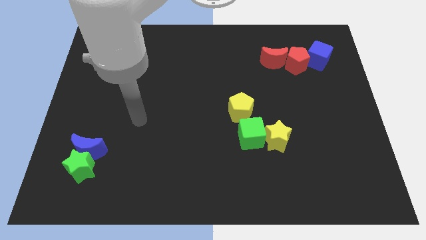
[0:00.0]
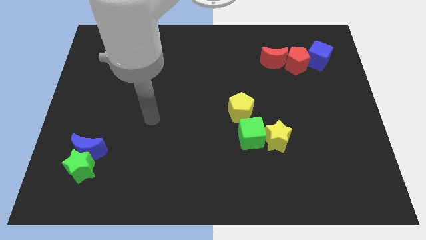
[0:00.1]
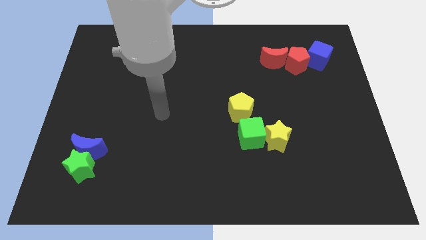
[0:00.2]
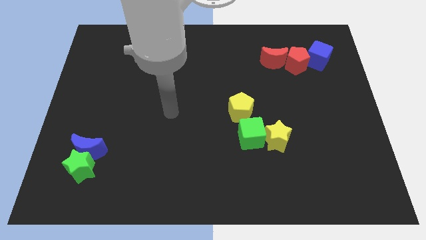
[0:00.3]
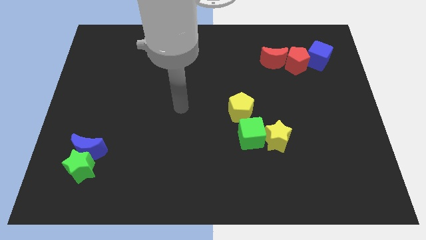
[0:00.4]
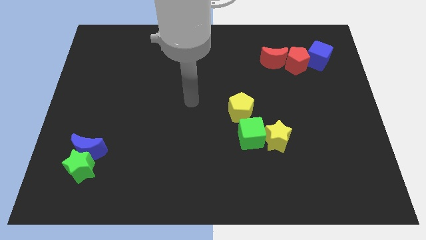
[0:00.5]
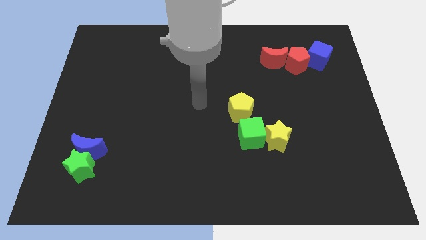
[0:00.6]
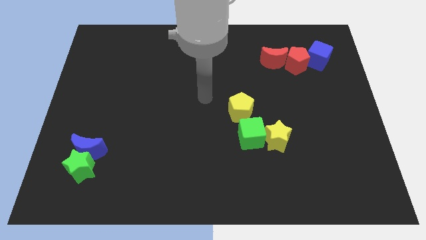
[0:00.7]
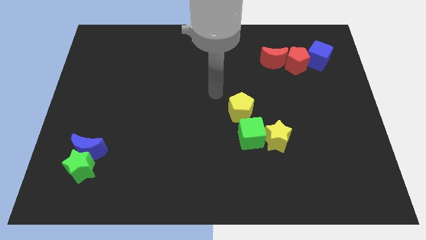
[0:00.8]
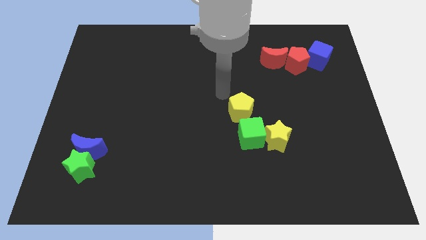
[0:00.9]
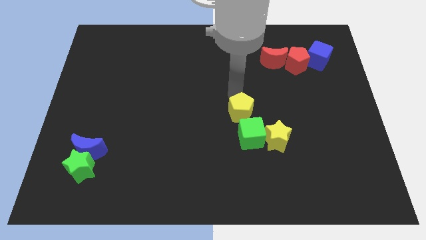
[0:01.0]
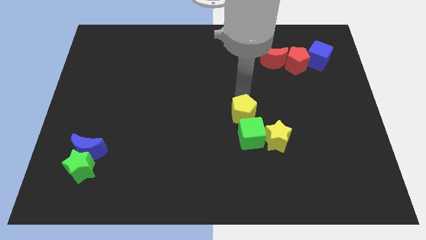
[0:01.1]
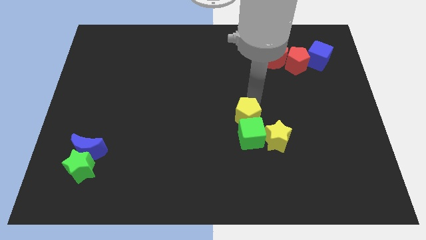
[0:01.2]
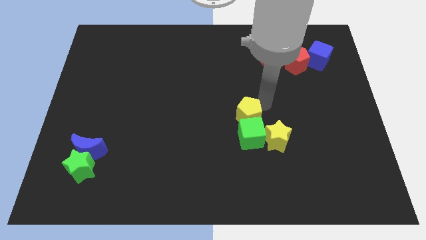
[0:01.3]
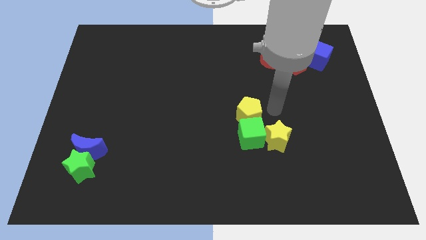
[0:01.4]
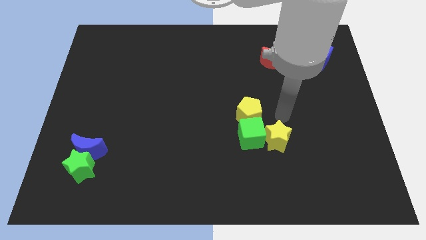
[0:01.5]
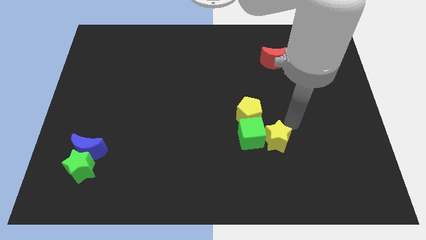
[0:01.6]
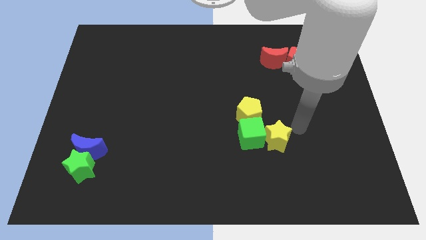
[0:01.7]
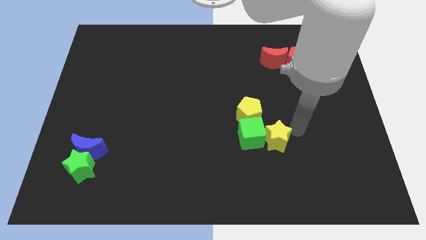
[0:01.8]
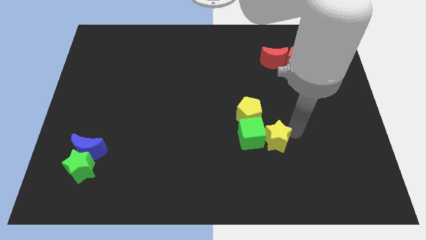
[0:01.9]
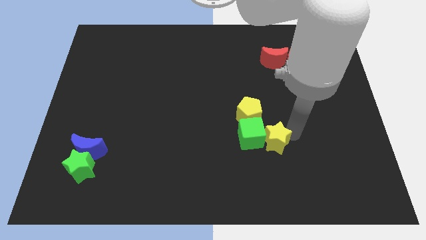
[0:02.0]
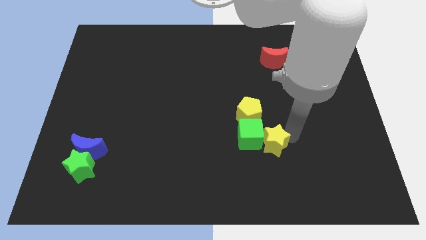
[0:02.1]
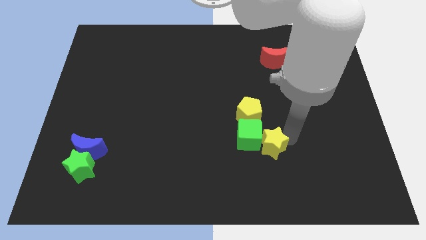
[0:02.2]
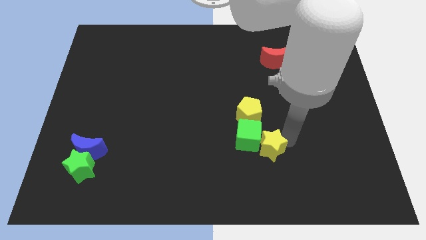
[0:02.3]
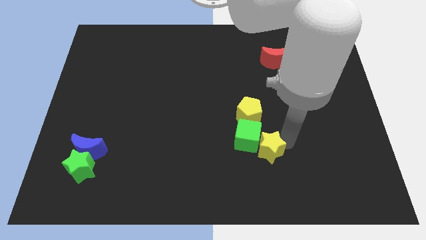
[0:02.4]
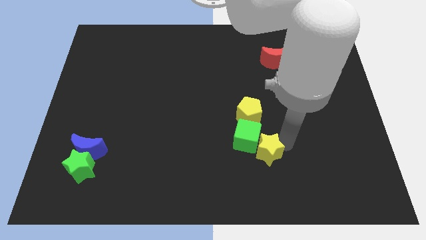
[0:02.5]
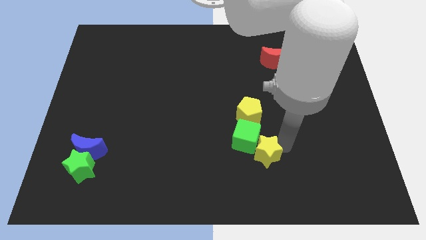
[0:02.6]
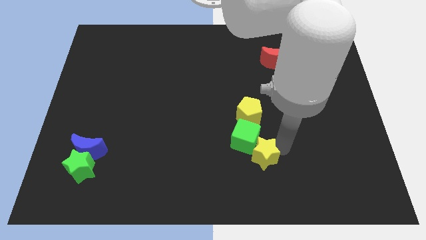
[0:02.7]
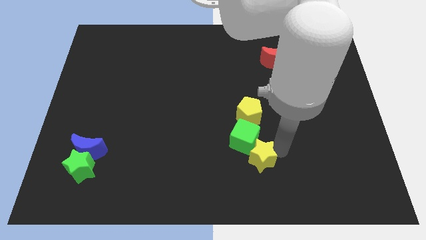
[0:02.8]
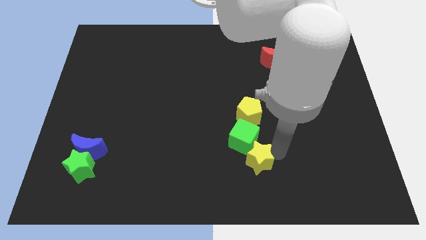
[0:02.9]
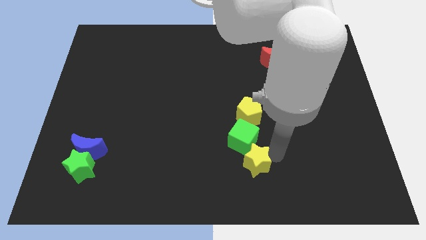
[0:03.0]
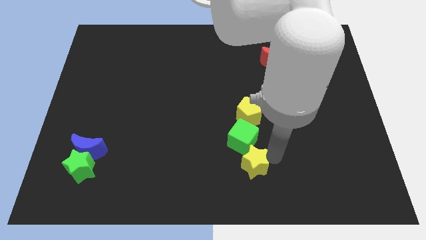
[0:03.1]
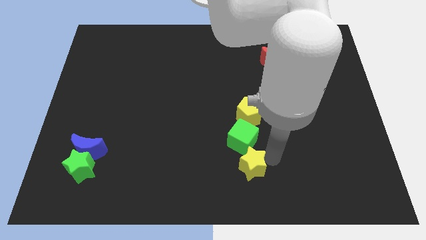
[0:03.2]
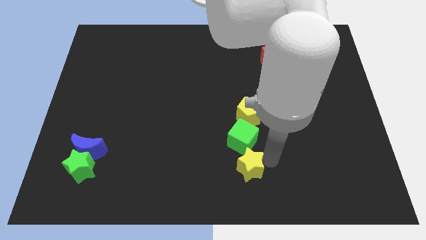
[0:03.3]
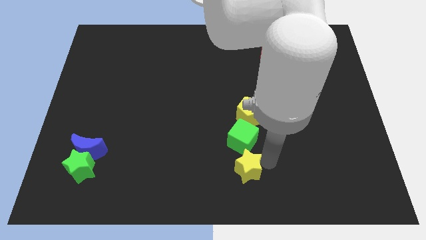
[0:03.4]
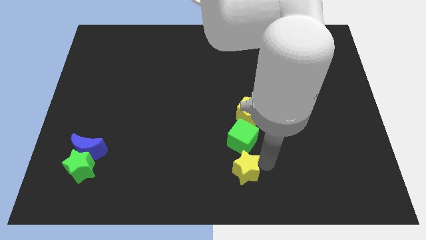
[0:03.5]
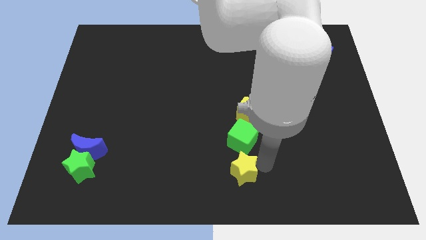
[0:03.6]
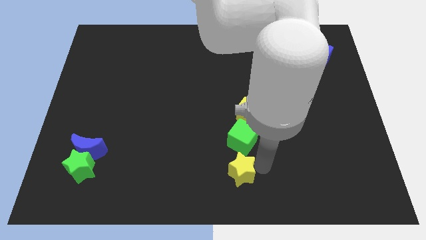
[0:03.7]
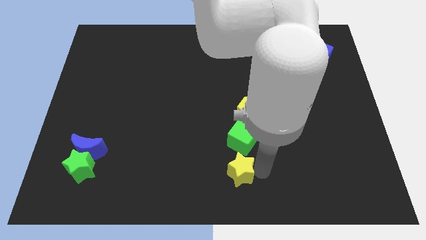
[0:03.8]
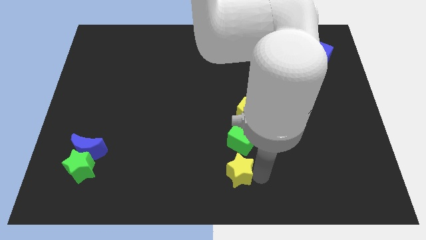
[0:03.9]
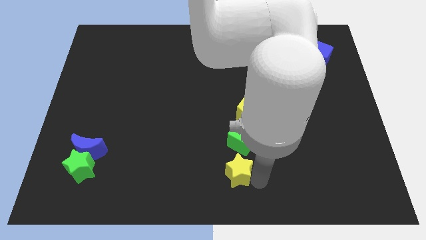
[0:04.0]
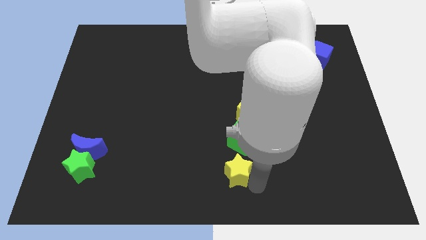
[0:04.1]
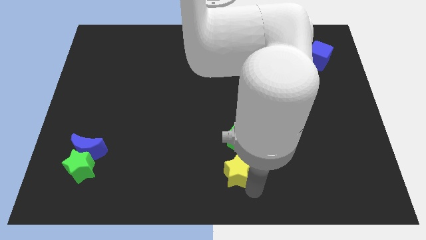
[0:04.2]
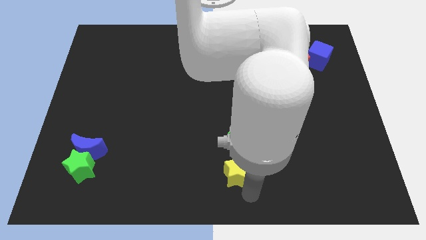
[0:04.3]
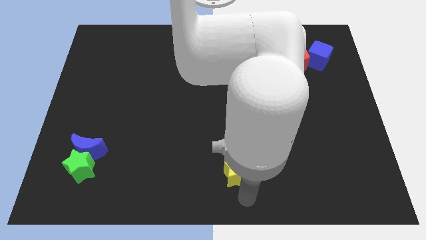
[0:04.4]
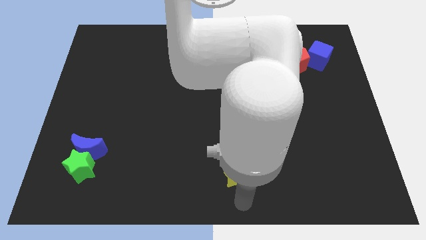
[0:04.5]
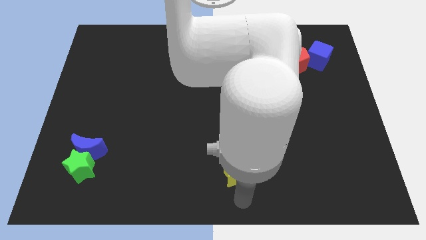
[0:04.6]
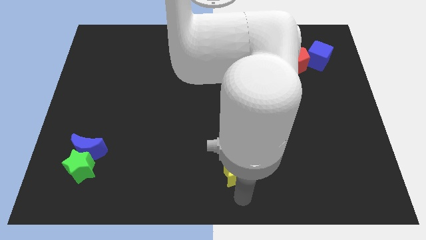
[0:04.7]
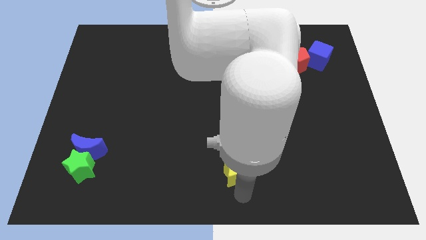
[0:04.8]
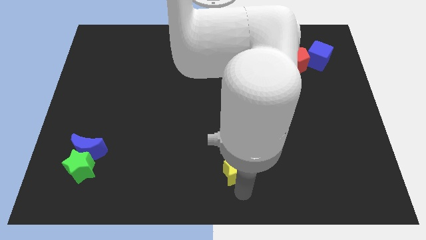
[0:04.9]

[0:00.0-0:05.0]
slightly move the yellow star left

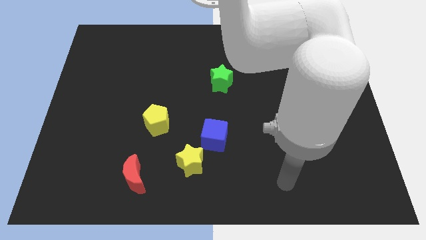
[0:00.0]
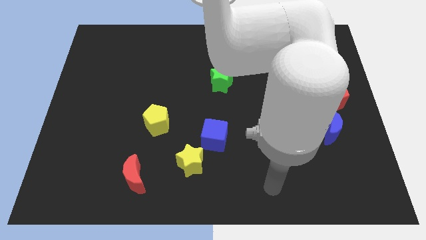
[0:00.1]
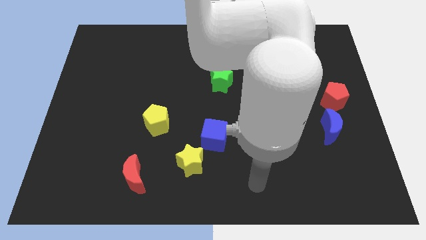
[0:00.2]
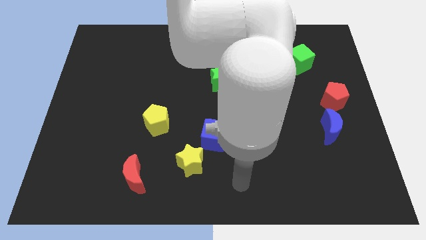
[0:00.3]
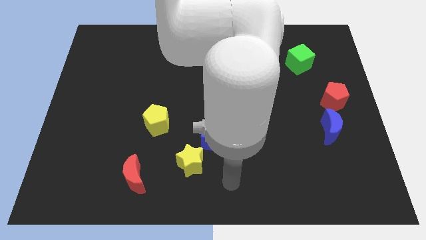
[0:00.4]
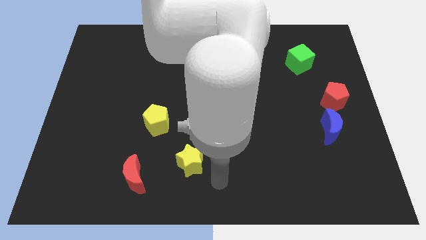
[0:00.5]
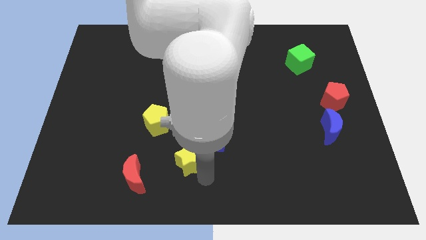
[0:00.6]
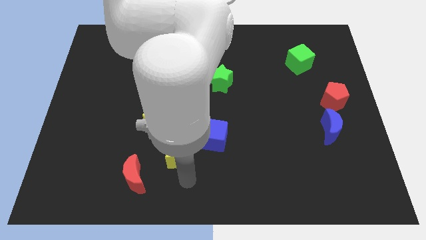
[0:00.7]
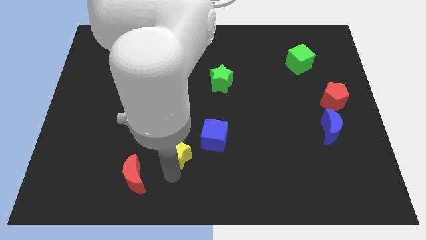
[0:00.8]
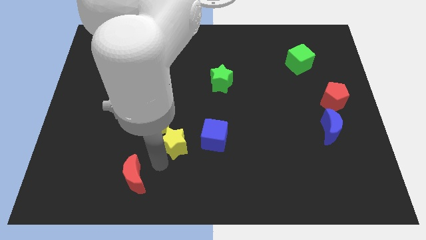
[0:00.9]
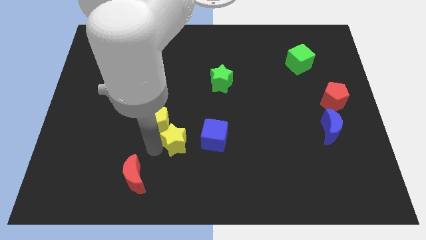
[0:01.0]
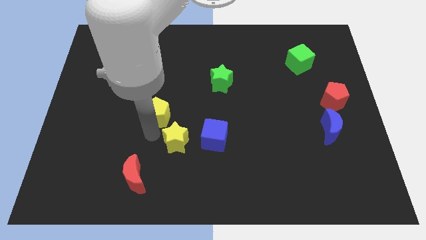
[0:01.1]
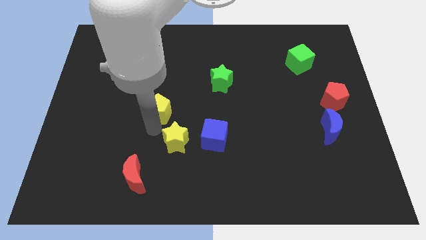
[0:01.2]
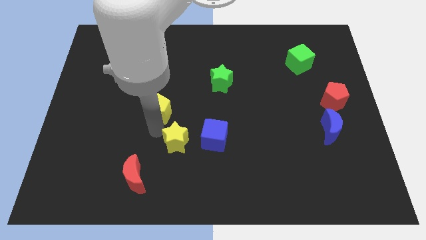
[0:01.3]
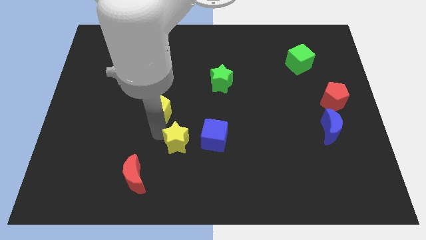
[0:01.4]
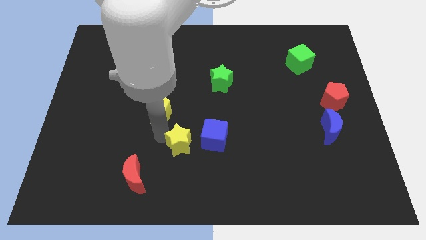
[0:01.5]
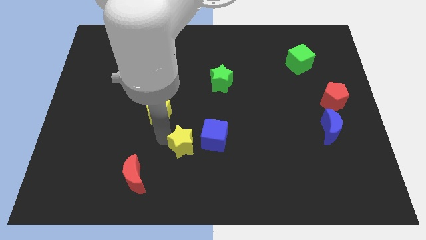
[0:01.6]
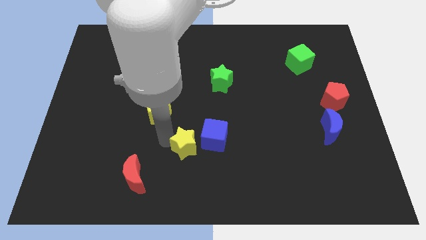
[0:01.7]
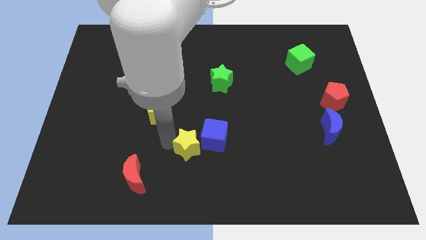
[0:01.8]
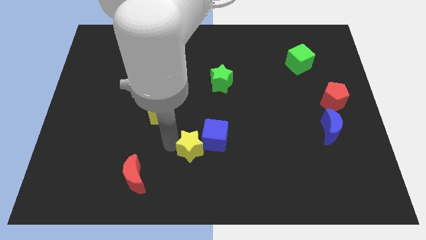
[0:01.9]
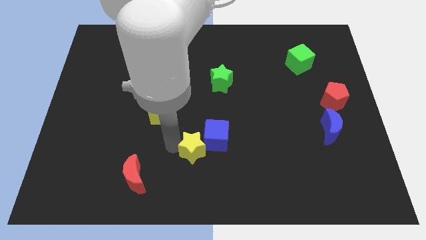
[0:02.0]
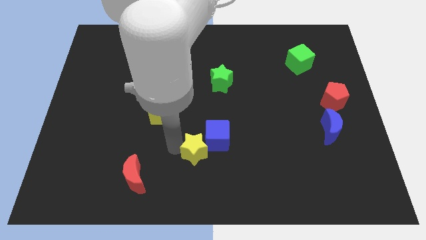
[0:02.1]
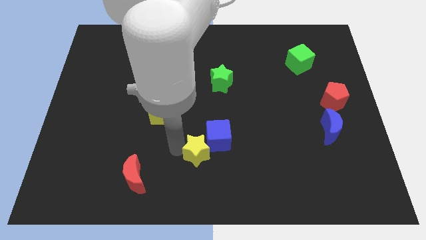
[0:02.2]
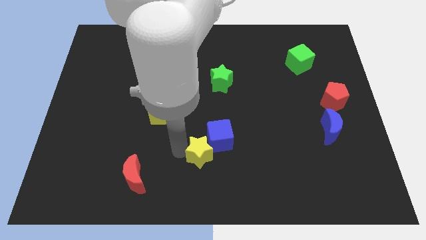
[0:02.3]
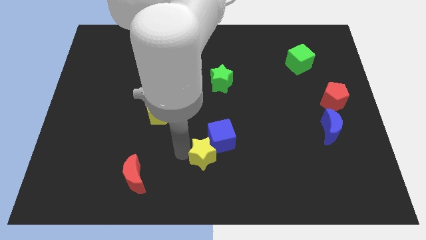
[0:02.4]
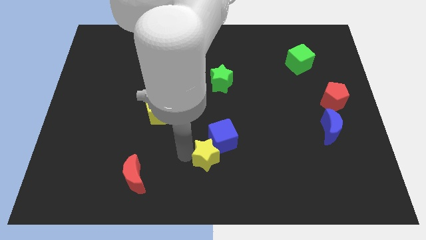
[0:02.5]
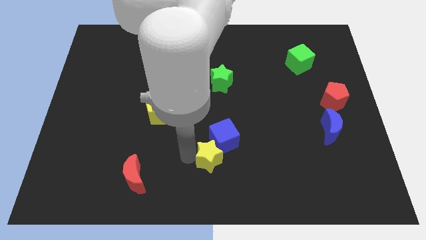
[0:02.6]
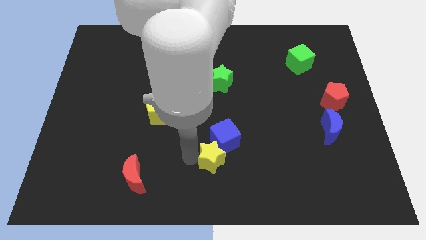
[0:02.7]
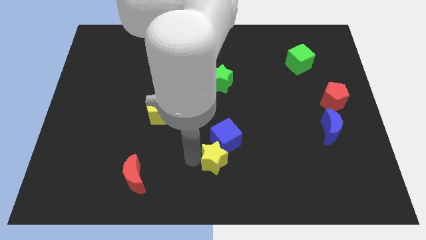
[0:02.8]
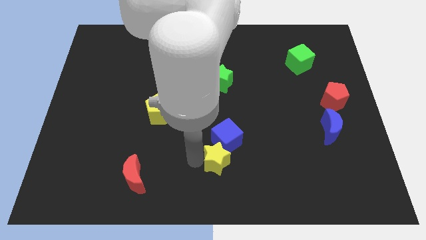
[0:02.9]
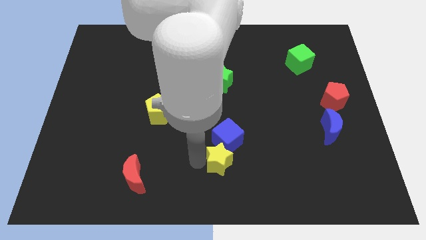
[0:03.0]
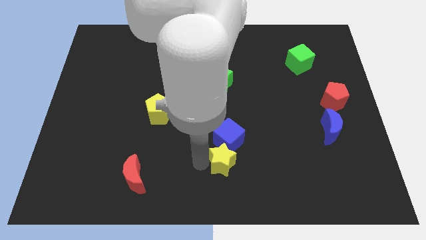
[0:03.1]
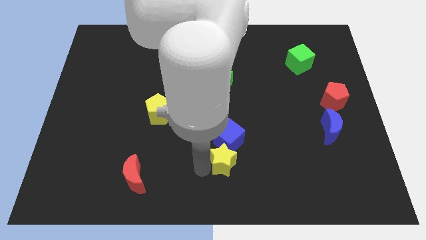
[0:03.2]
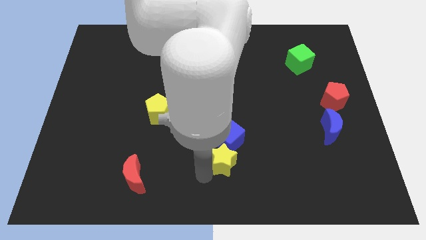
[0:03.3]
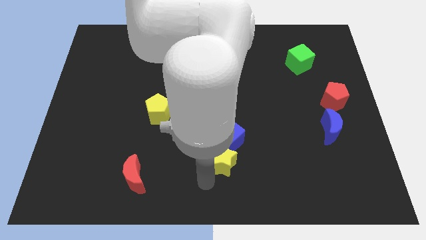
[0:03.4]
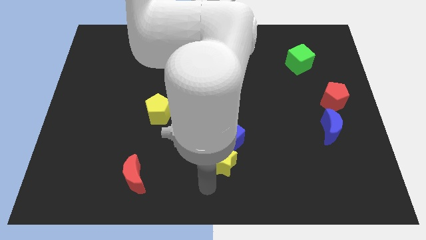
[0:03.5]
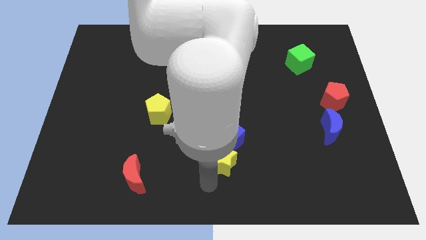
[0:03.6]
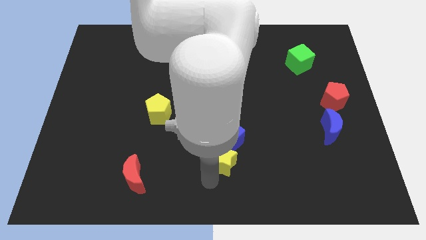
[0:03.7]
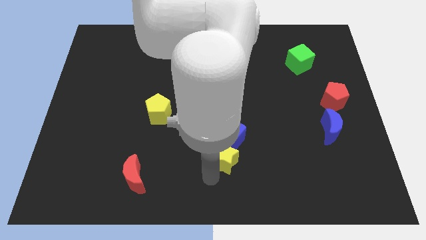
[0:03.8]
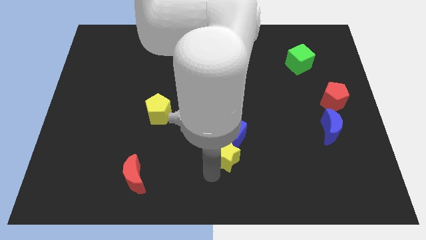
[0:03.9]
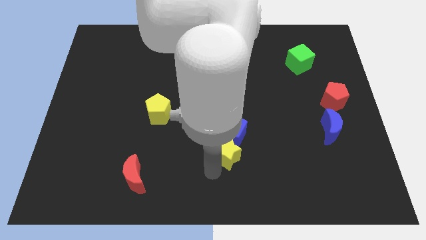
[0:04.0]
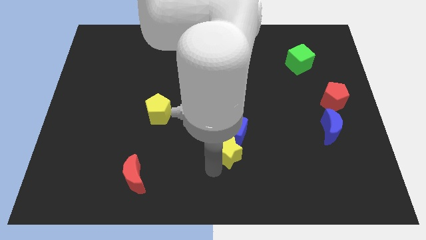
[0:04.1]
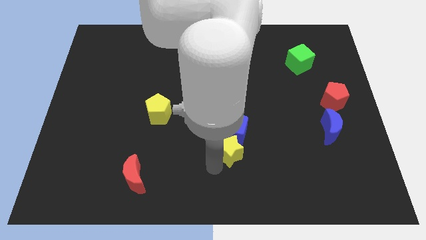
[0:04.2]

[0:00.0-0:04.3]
push the yellow star slightly upwards and to the right
